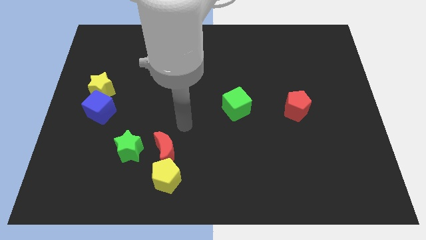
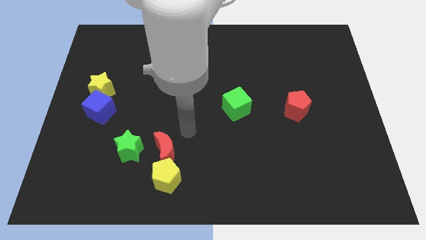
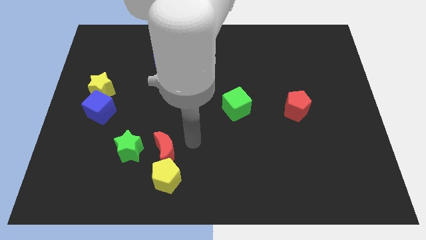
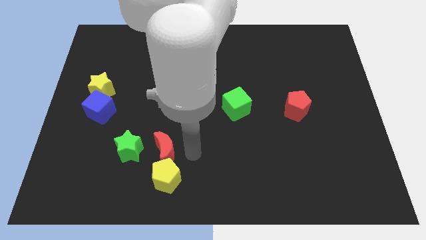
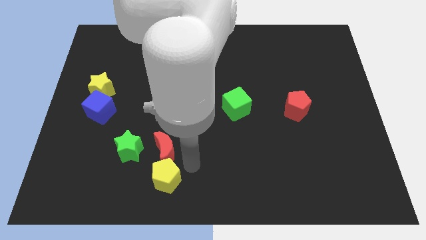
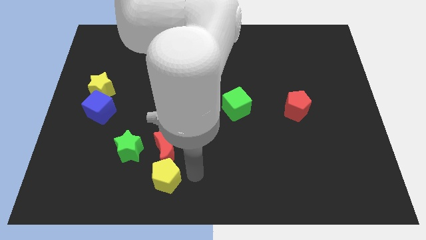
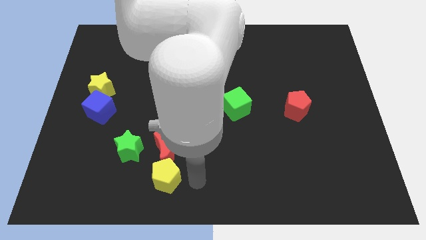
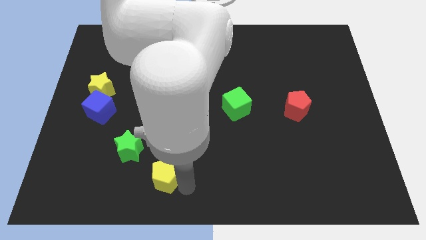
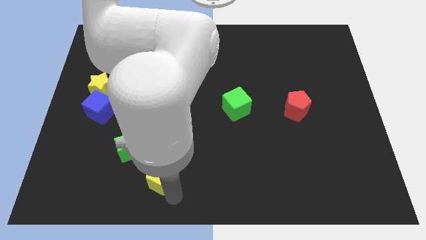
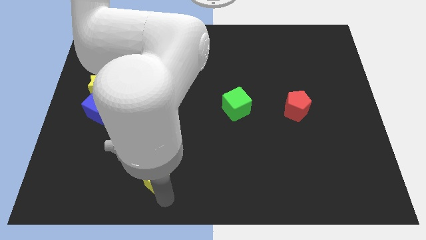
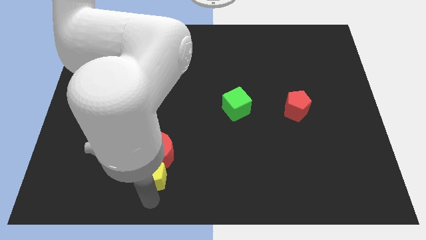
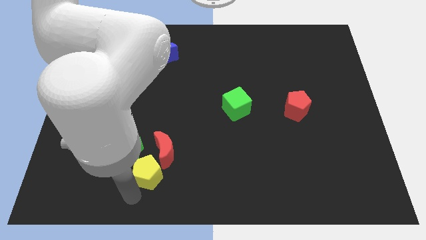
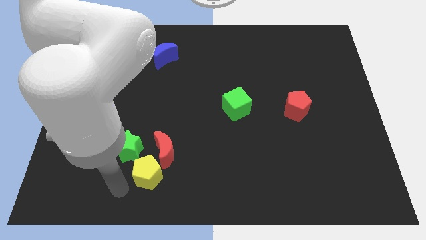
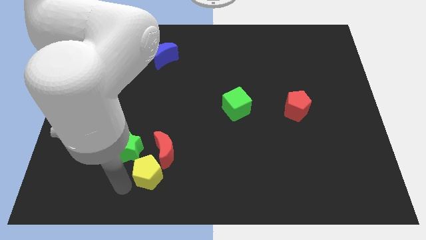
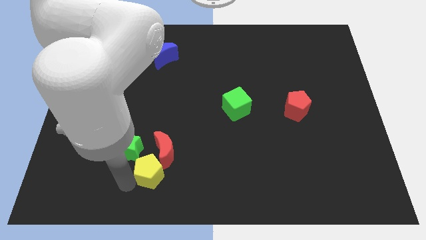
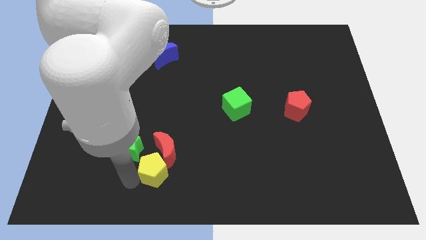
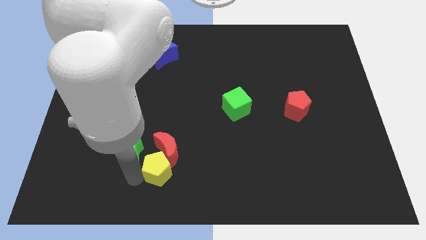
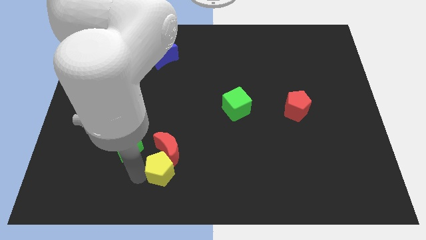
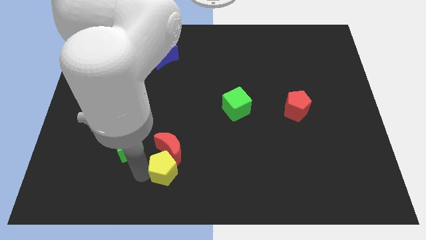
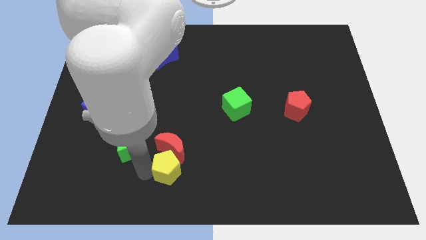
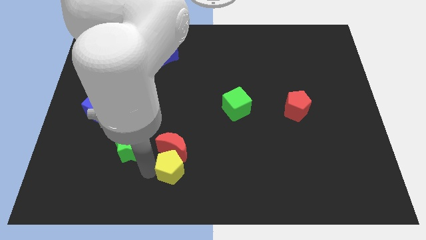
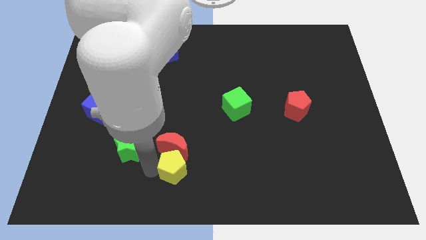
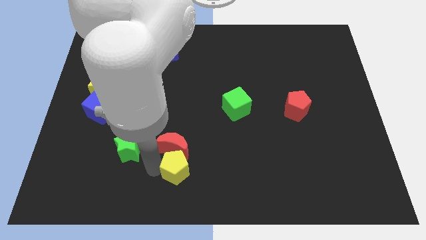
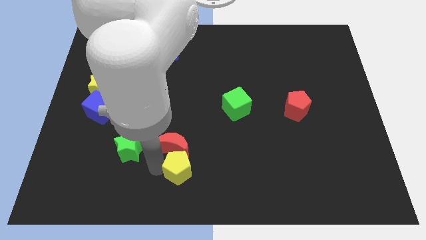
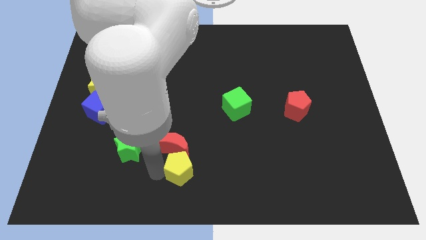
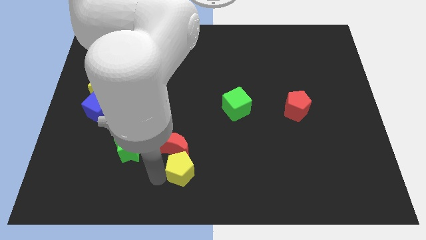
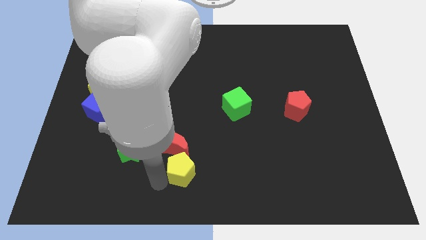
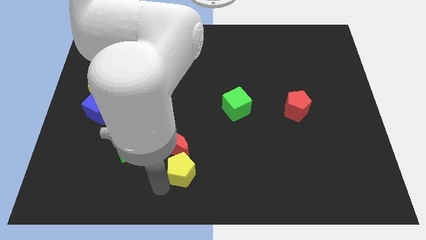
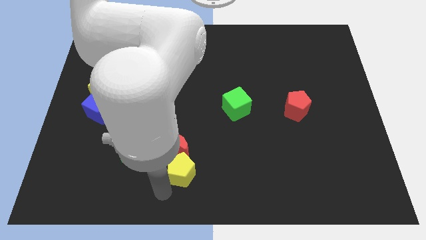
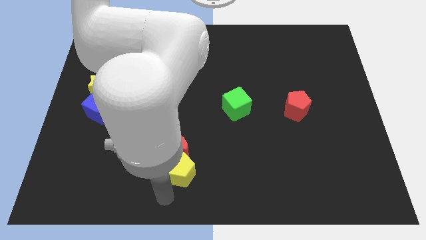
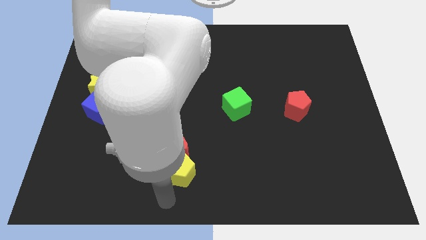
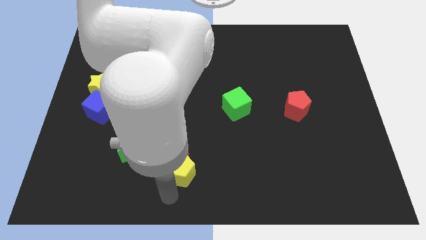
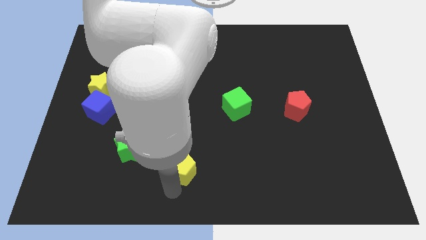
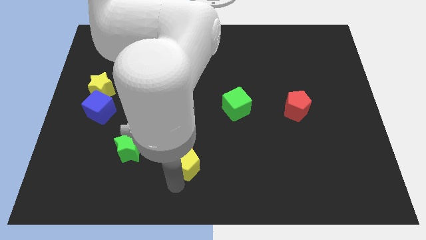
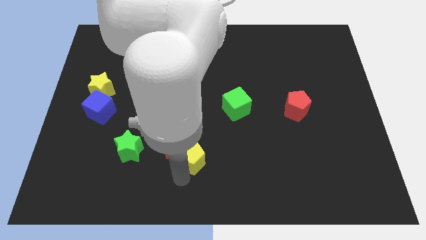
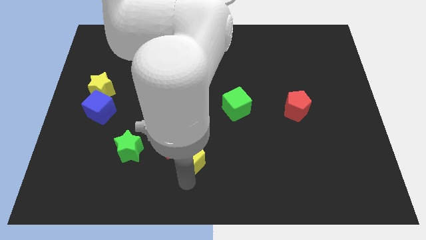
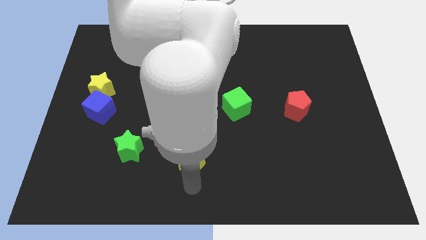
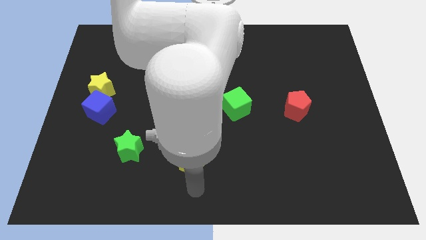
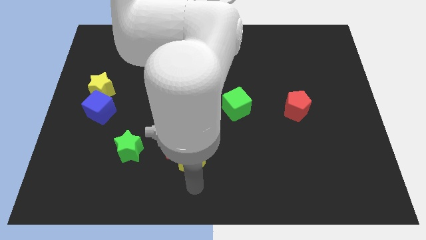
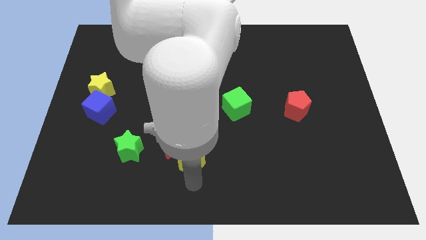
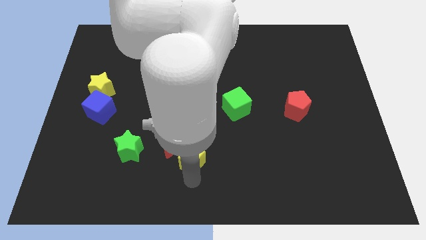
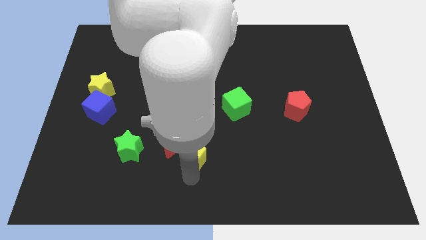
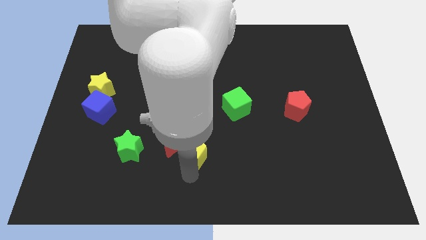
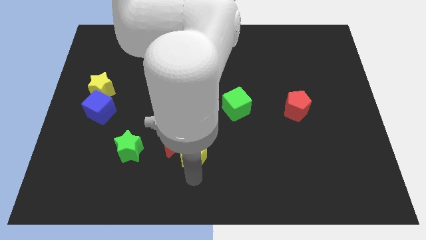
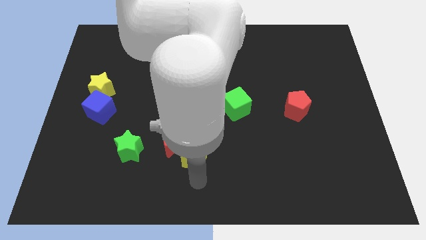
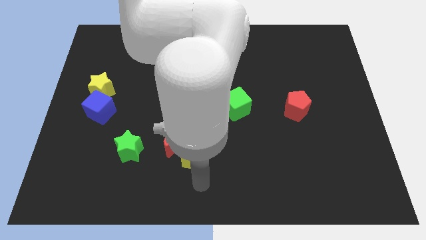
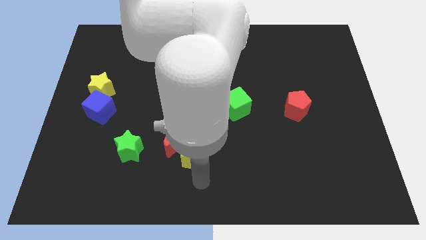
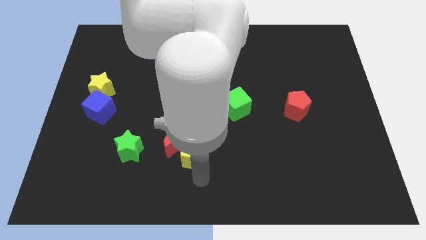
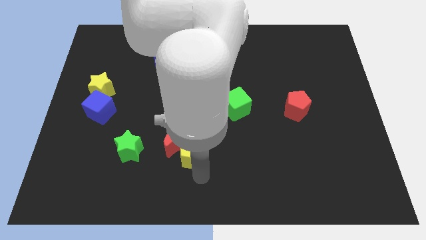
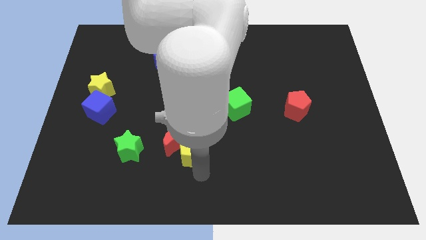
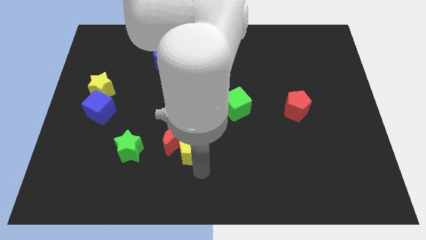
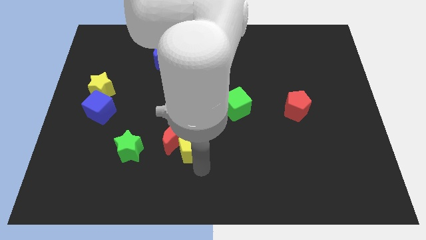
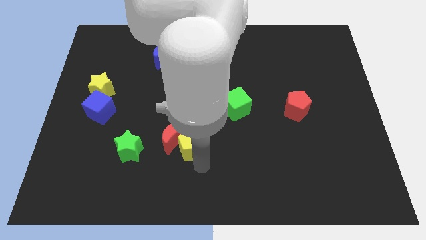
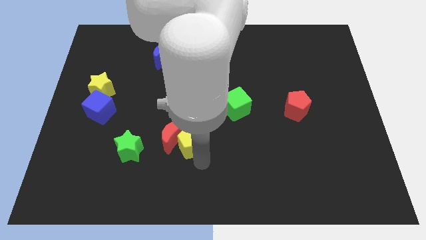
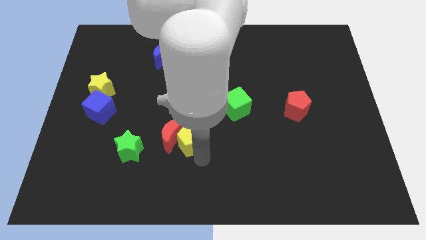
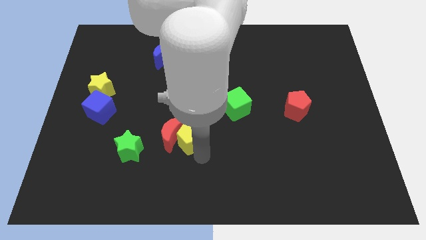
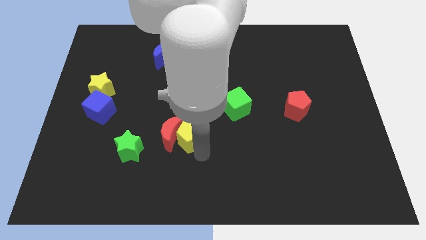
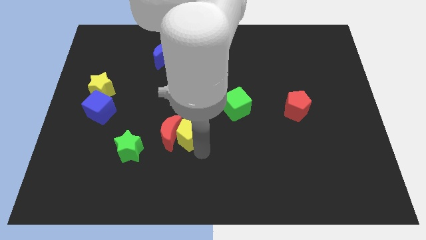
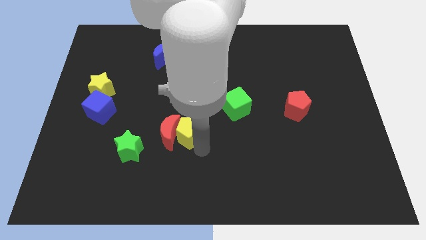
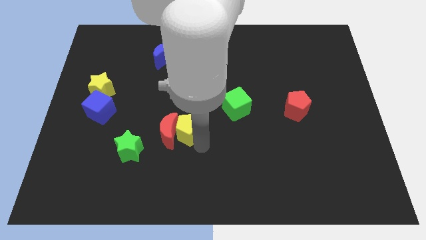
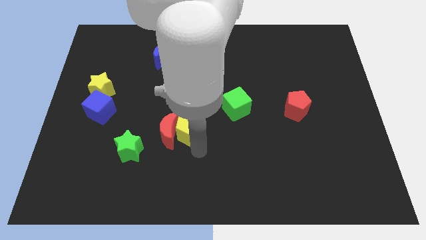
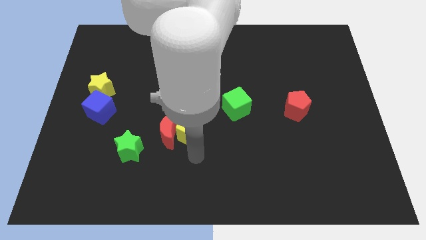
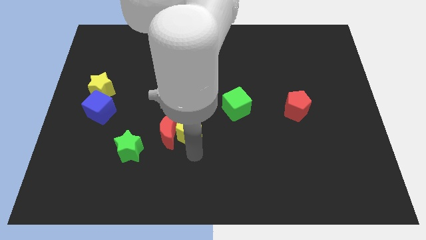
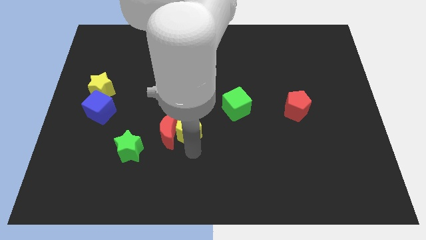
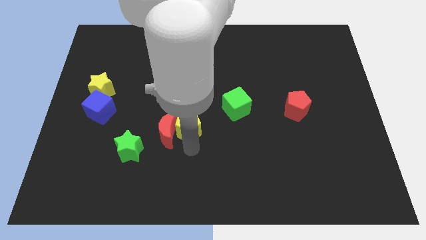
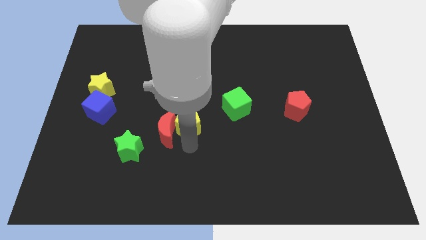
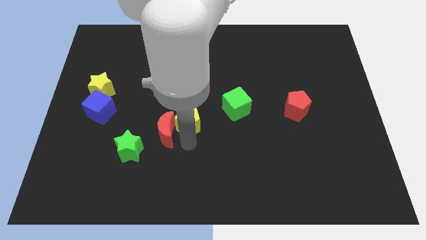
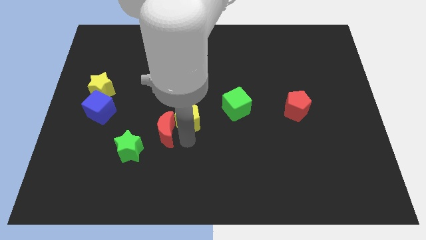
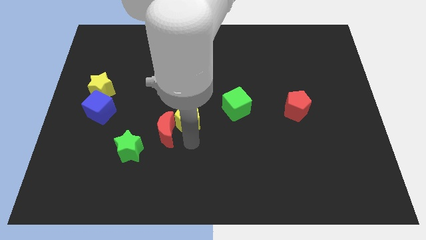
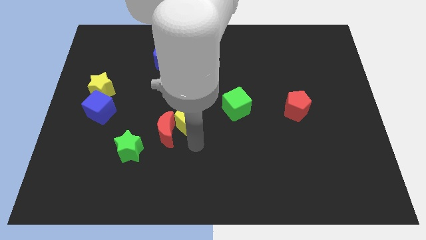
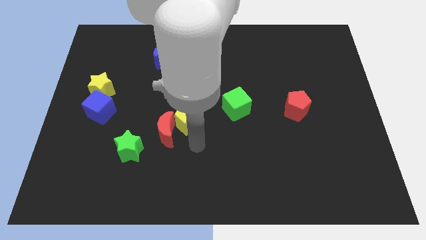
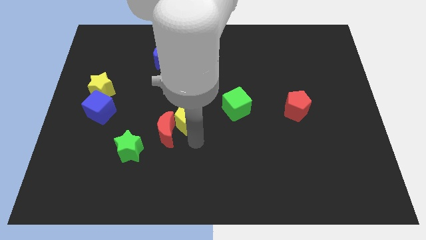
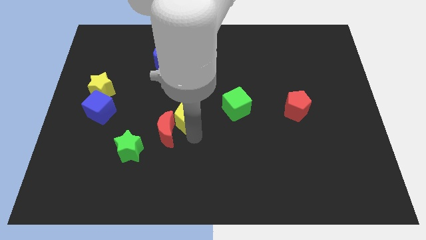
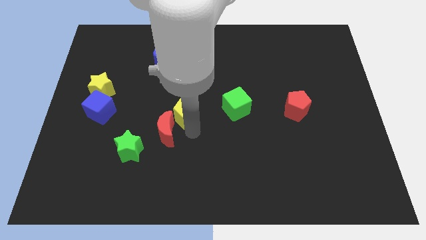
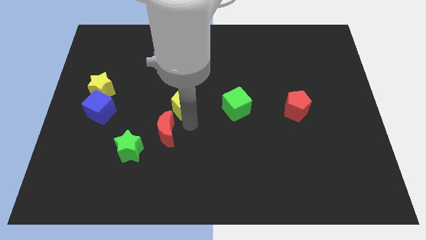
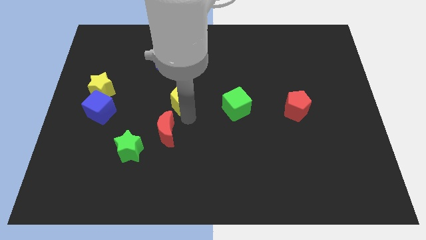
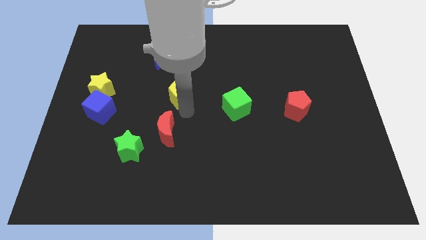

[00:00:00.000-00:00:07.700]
push the yellow pentagon up
